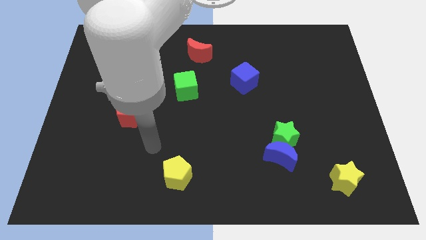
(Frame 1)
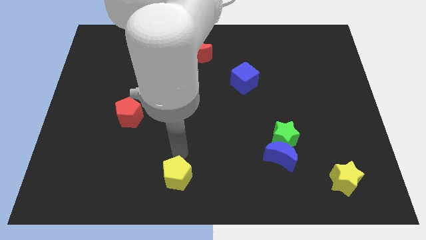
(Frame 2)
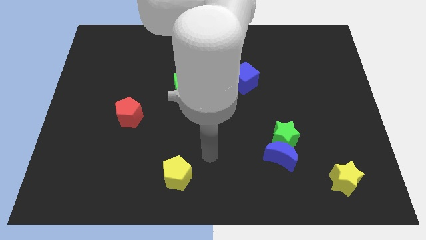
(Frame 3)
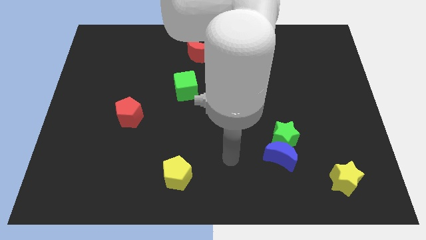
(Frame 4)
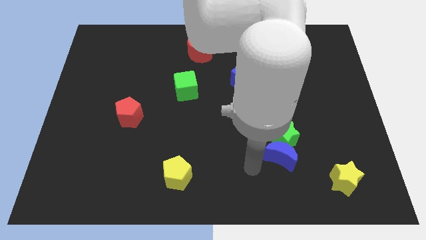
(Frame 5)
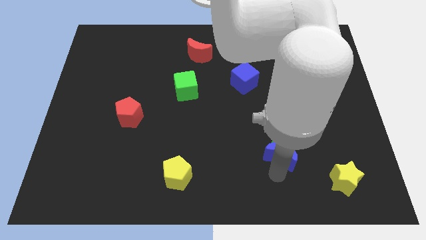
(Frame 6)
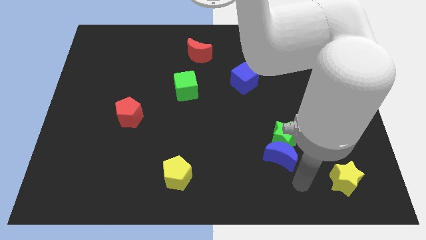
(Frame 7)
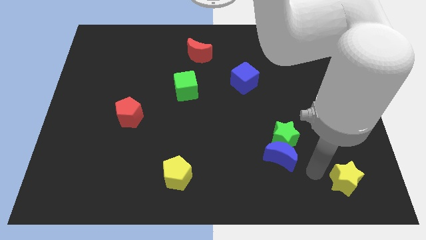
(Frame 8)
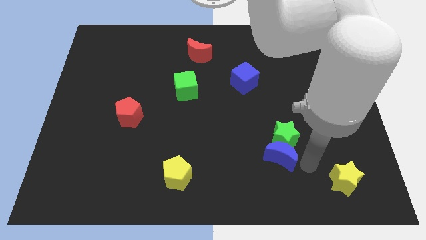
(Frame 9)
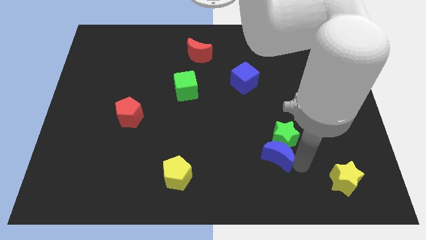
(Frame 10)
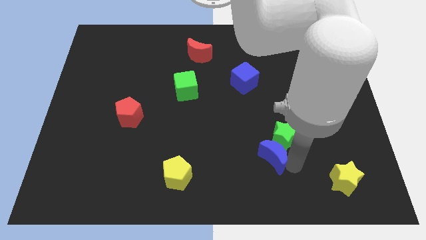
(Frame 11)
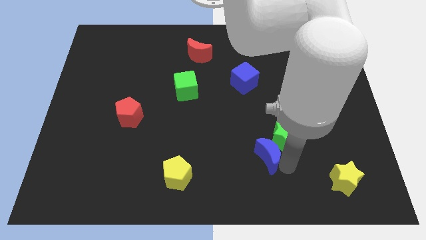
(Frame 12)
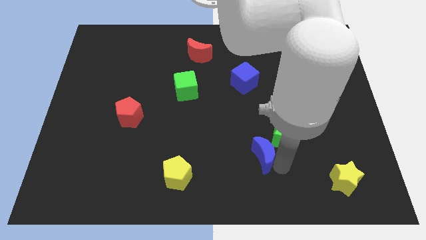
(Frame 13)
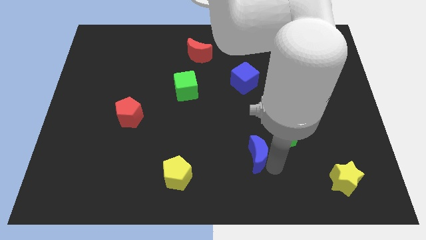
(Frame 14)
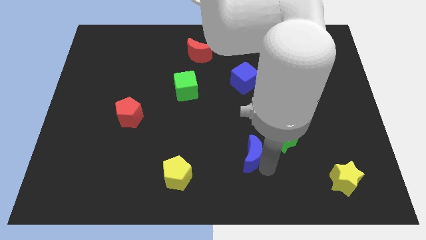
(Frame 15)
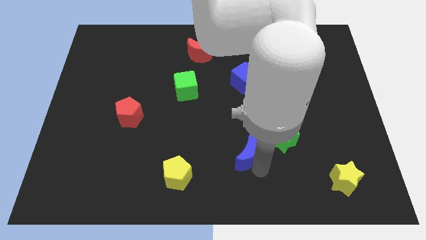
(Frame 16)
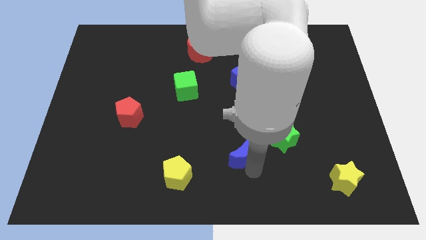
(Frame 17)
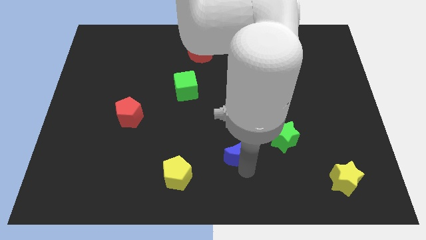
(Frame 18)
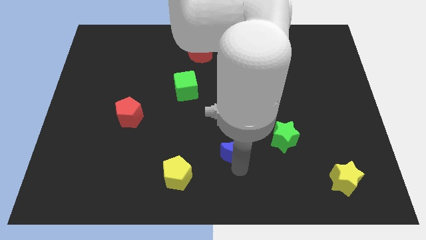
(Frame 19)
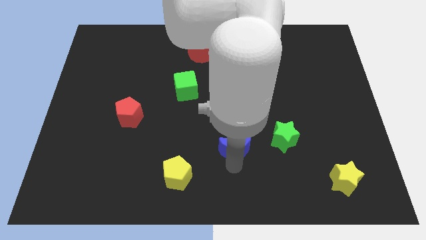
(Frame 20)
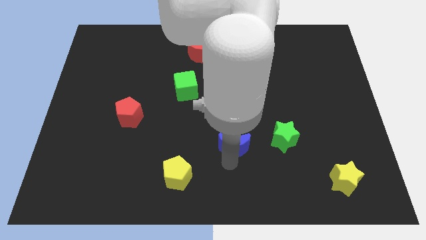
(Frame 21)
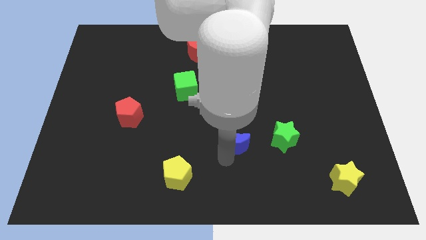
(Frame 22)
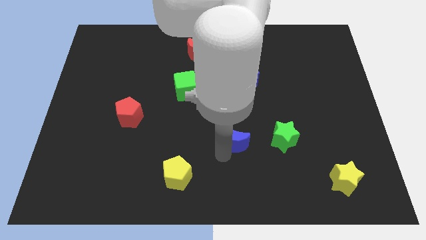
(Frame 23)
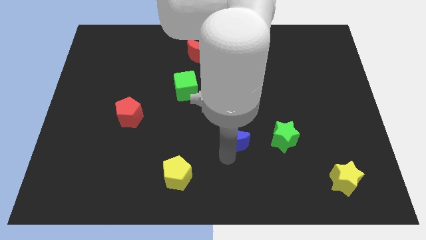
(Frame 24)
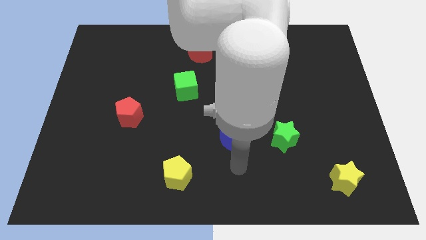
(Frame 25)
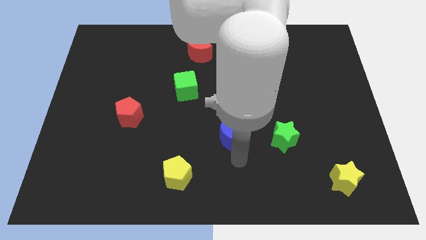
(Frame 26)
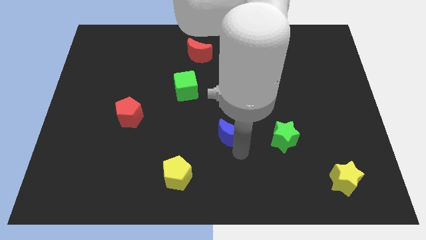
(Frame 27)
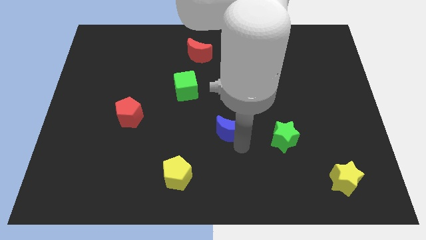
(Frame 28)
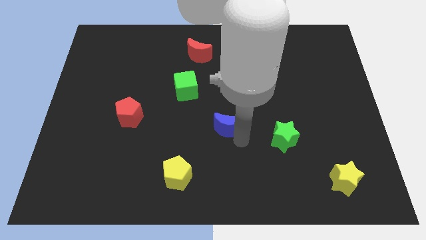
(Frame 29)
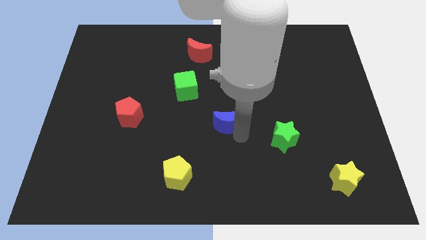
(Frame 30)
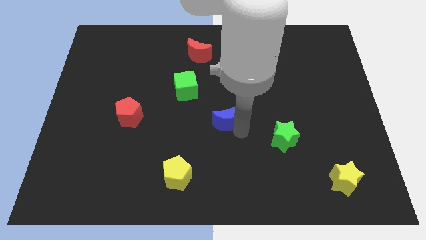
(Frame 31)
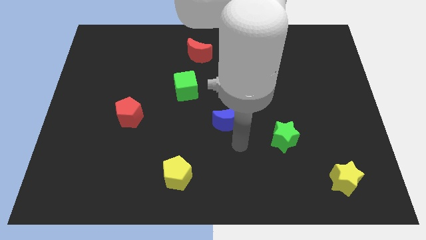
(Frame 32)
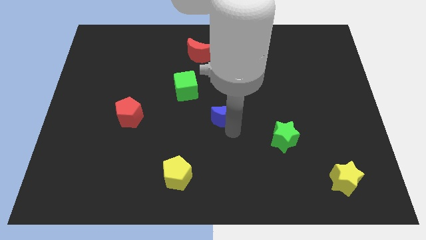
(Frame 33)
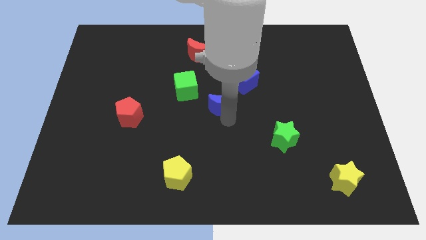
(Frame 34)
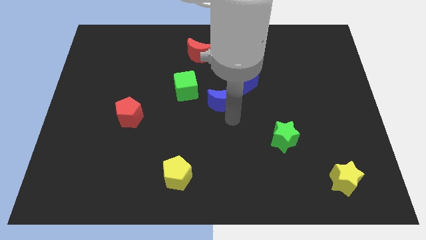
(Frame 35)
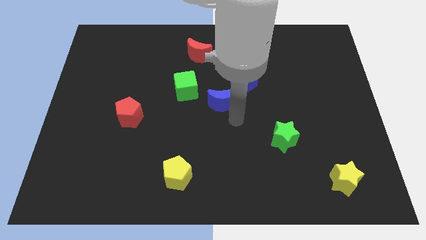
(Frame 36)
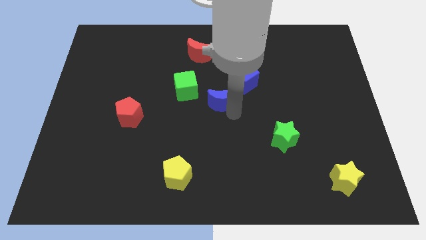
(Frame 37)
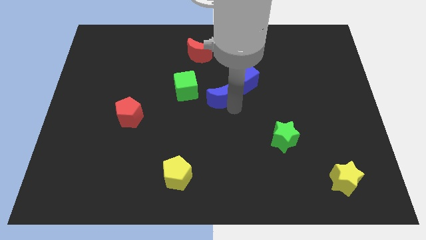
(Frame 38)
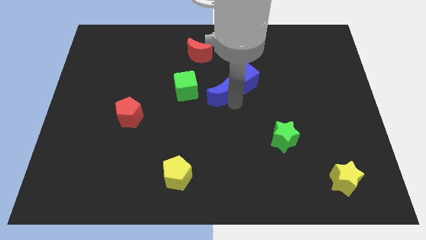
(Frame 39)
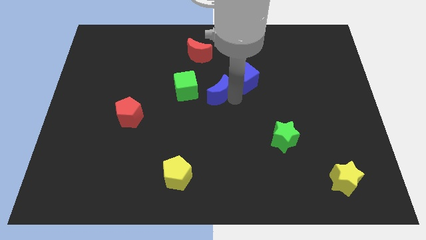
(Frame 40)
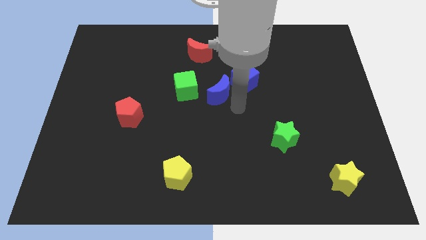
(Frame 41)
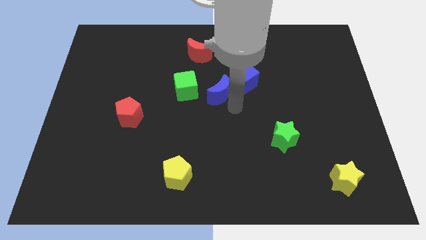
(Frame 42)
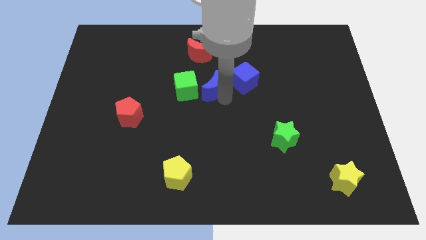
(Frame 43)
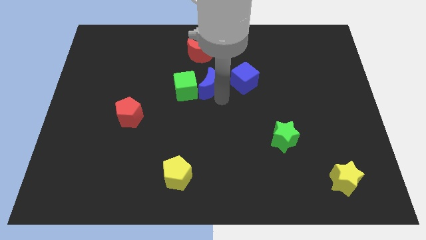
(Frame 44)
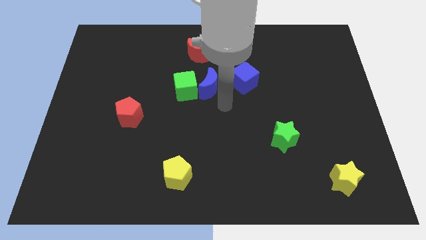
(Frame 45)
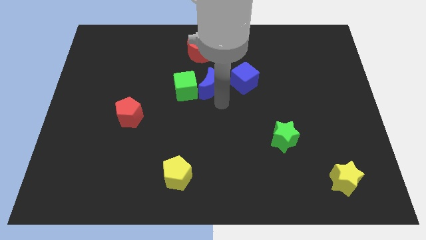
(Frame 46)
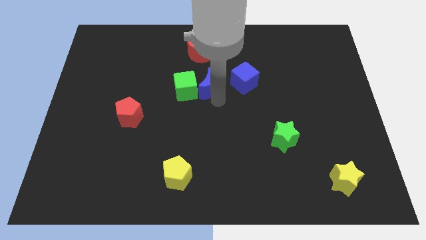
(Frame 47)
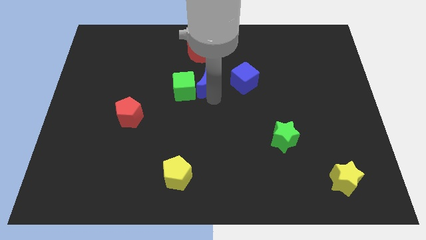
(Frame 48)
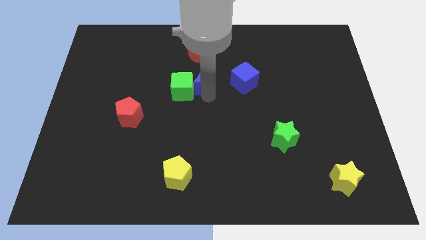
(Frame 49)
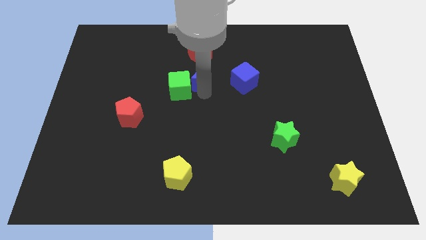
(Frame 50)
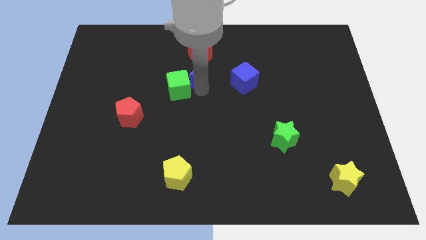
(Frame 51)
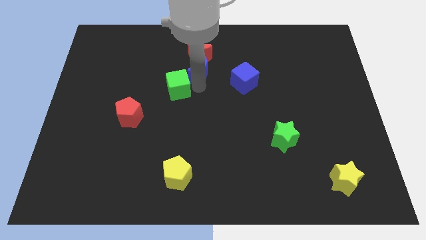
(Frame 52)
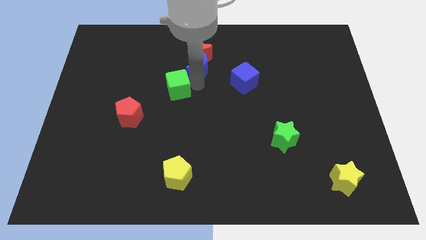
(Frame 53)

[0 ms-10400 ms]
put the blue moon to the red moon

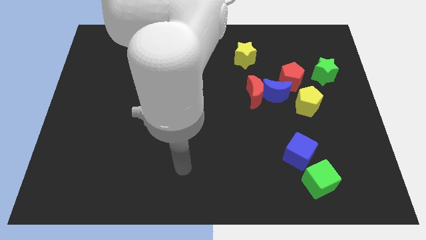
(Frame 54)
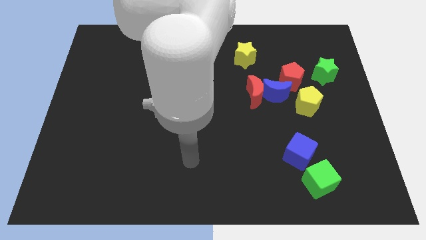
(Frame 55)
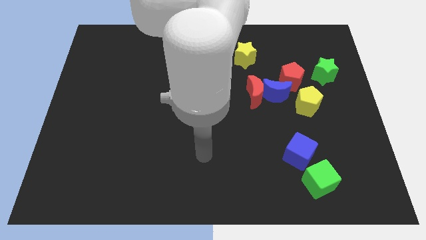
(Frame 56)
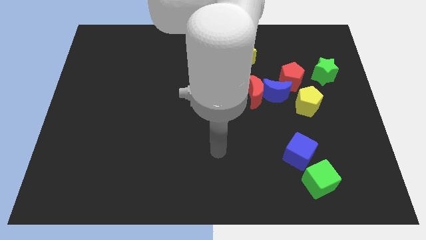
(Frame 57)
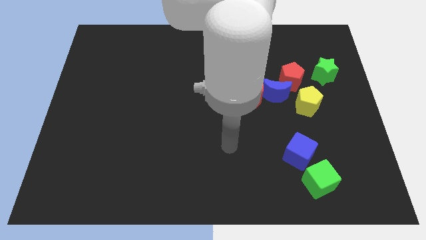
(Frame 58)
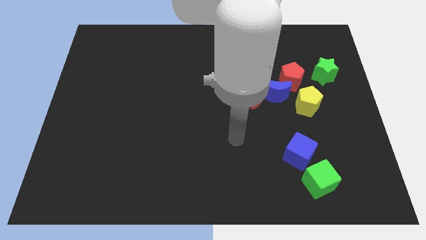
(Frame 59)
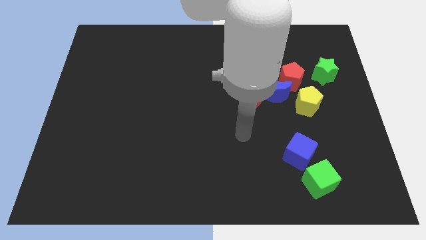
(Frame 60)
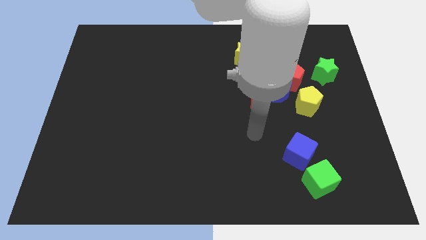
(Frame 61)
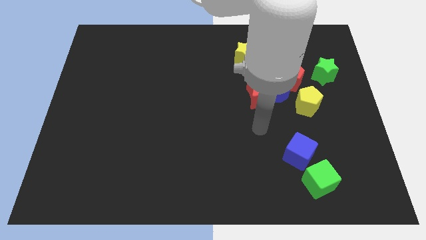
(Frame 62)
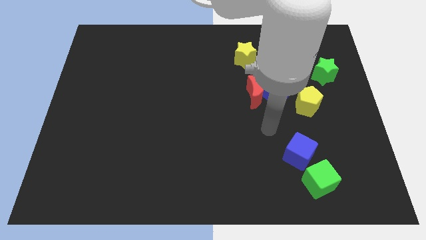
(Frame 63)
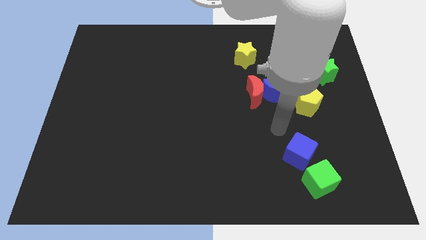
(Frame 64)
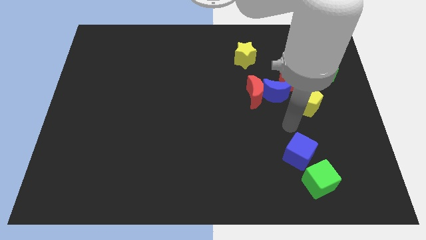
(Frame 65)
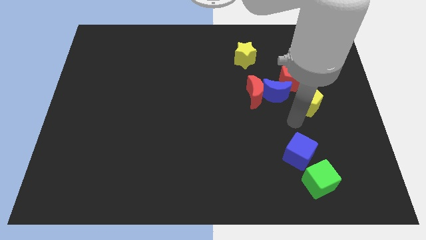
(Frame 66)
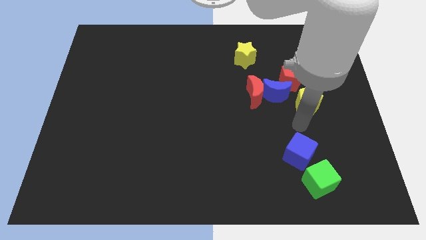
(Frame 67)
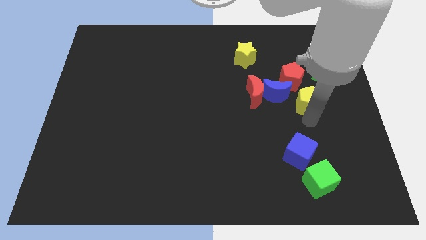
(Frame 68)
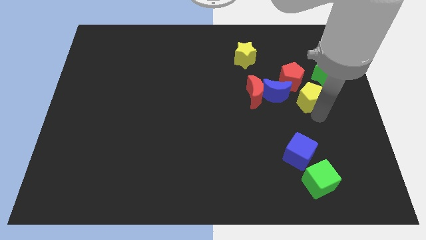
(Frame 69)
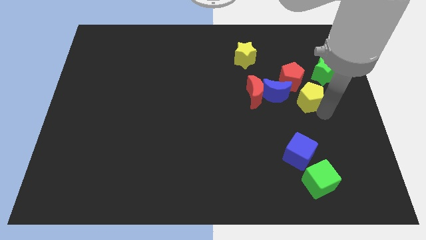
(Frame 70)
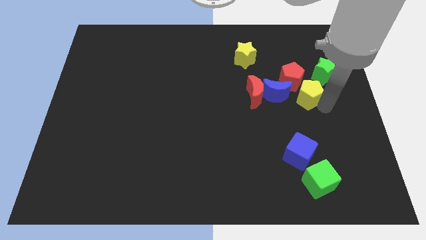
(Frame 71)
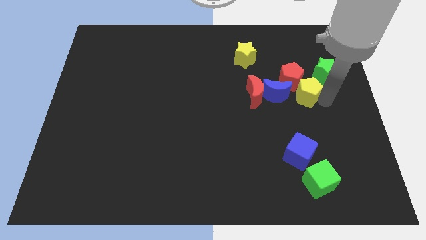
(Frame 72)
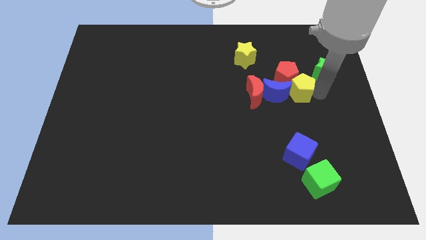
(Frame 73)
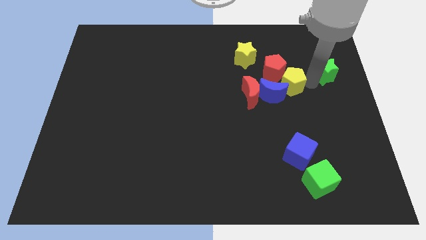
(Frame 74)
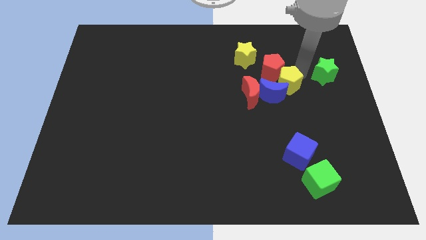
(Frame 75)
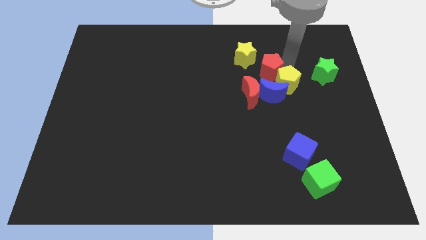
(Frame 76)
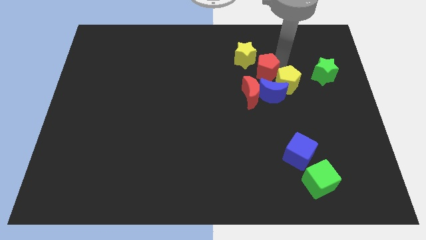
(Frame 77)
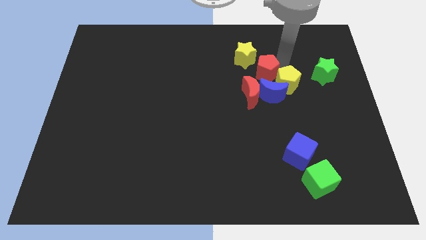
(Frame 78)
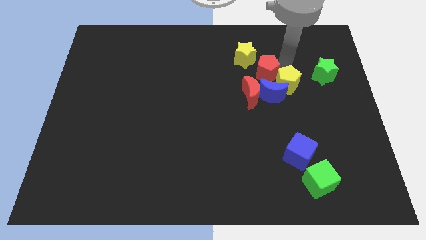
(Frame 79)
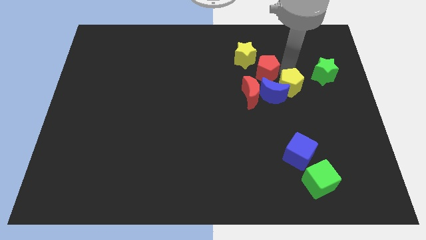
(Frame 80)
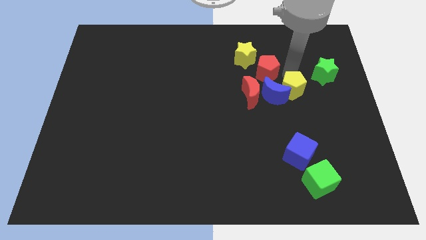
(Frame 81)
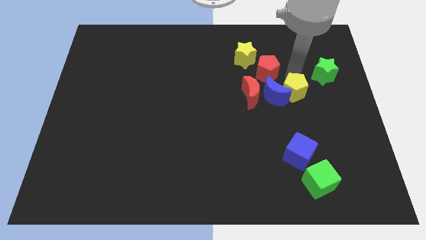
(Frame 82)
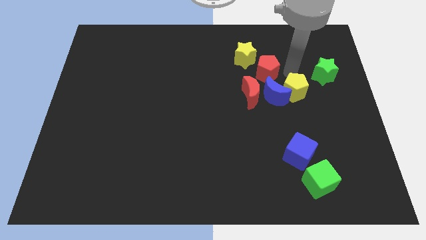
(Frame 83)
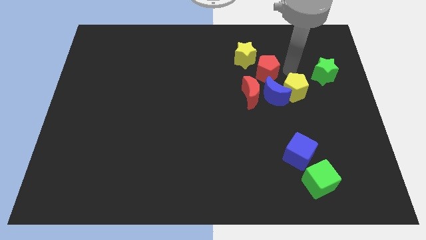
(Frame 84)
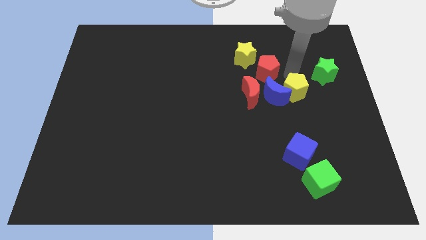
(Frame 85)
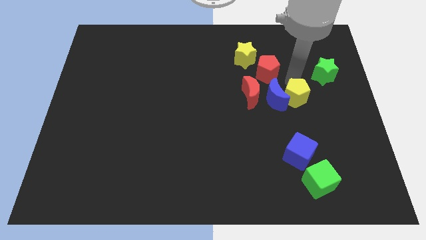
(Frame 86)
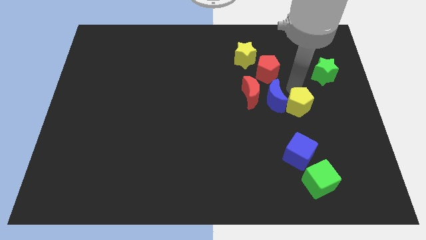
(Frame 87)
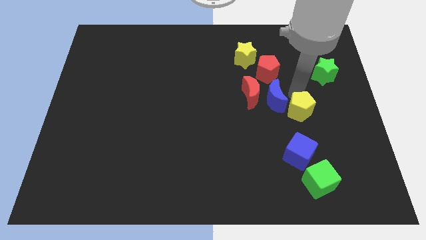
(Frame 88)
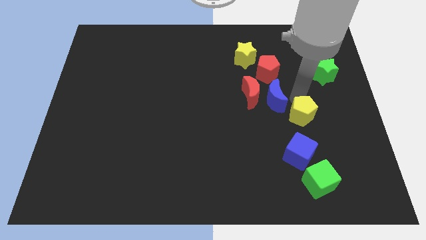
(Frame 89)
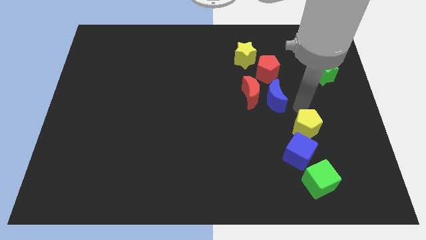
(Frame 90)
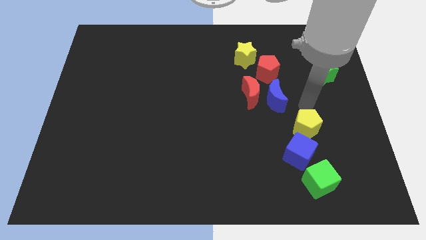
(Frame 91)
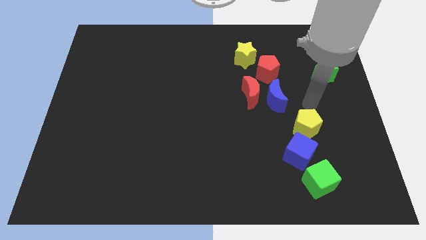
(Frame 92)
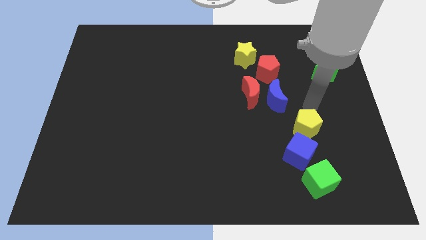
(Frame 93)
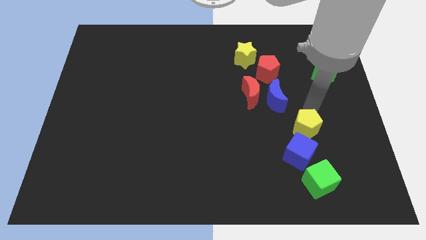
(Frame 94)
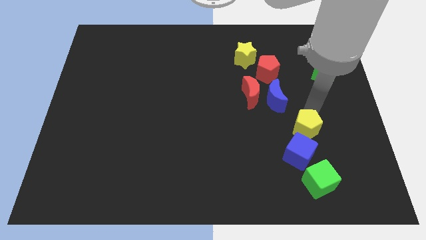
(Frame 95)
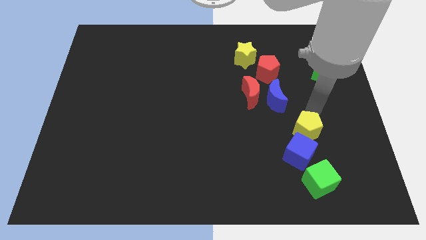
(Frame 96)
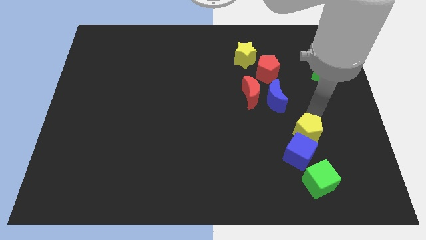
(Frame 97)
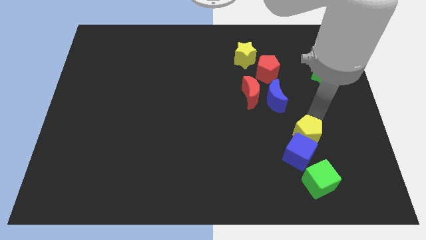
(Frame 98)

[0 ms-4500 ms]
slide the yellow pentagon to the blue cube
